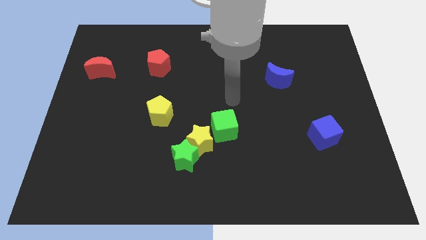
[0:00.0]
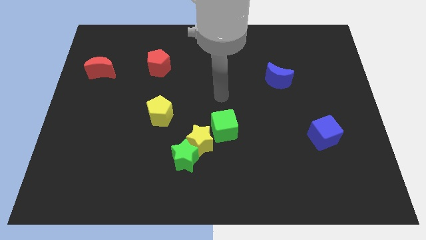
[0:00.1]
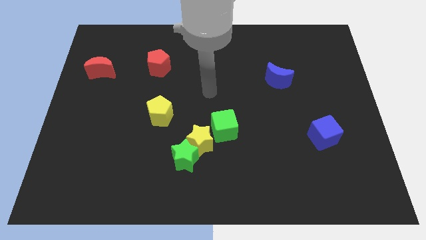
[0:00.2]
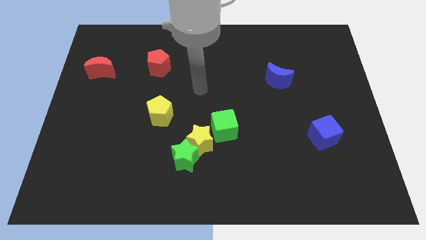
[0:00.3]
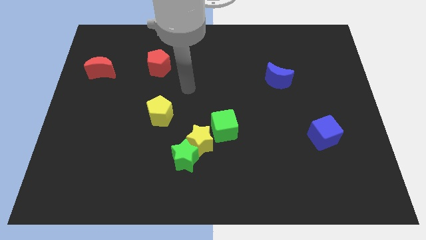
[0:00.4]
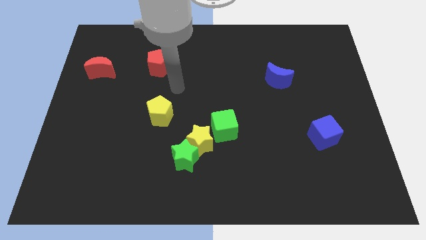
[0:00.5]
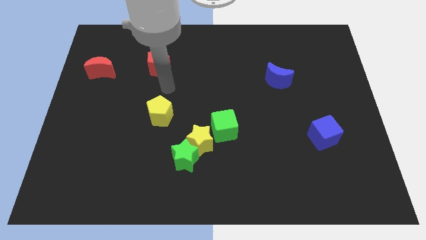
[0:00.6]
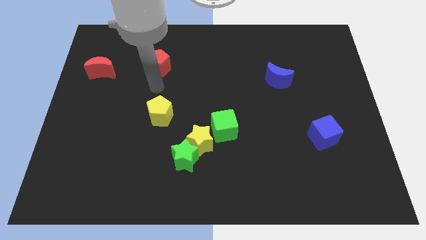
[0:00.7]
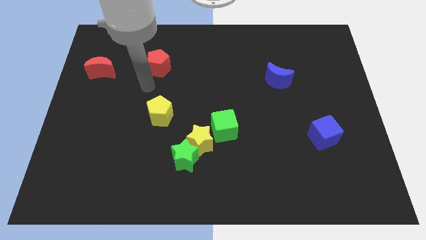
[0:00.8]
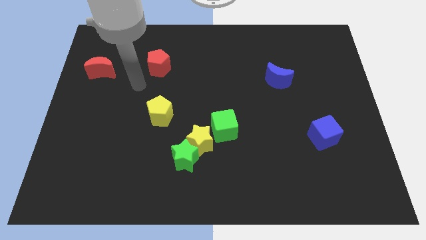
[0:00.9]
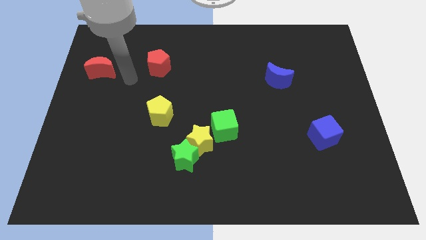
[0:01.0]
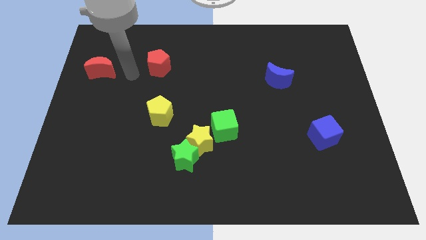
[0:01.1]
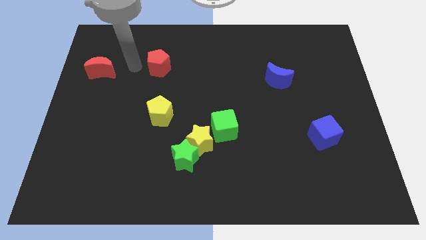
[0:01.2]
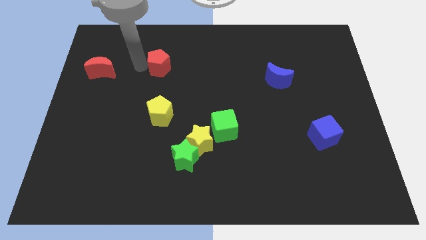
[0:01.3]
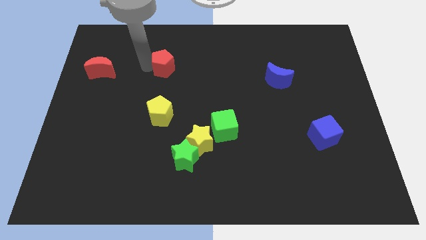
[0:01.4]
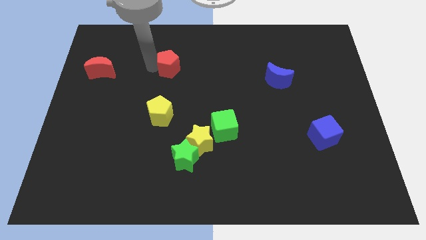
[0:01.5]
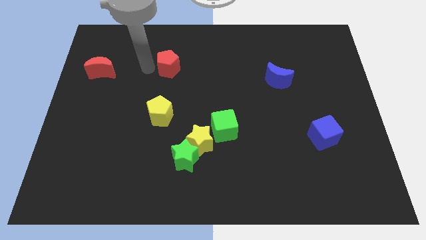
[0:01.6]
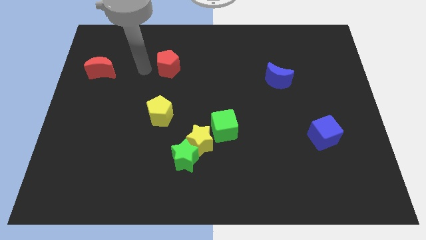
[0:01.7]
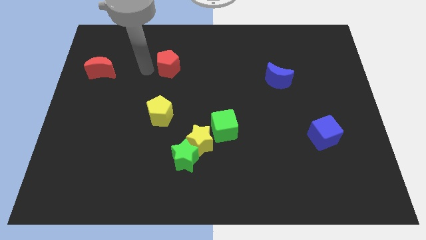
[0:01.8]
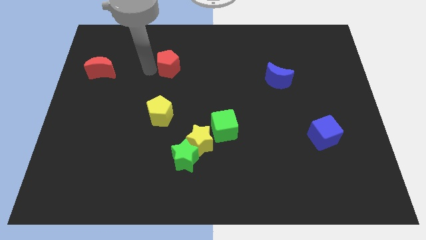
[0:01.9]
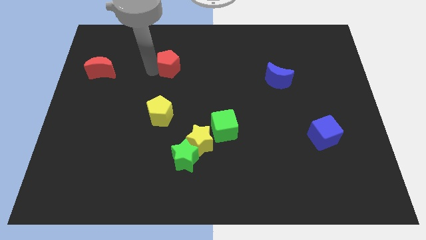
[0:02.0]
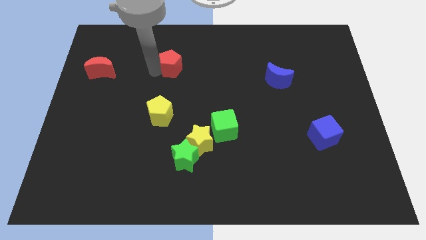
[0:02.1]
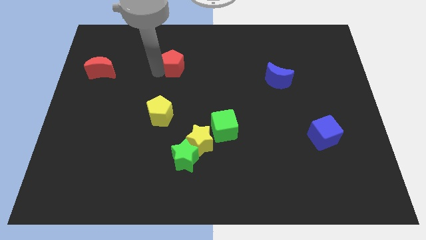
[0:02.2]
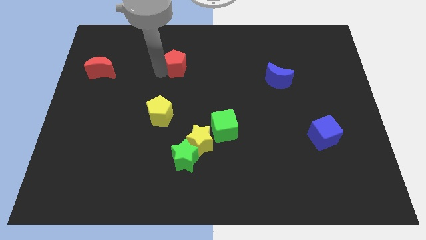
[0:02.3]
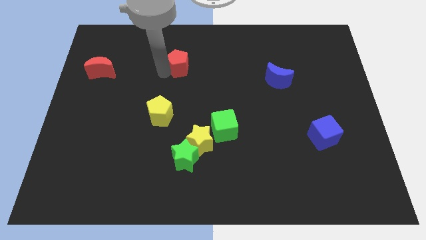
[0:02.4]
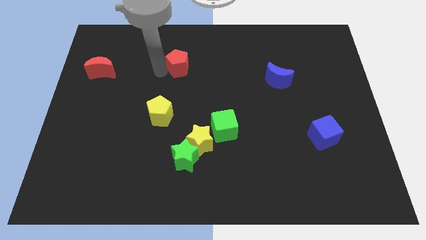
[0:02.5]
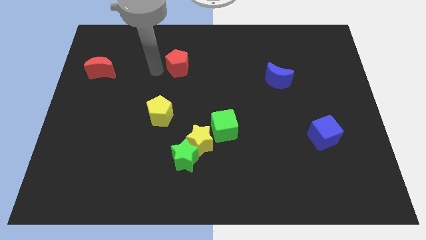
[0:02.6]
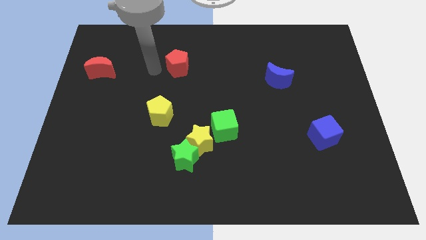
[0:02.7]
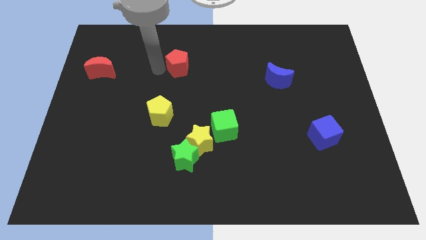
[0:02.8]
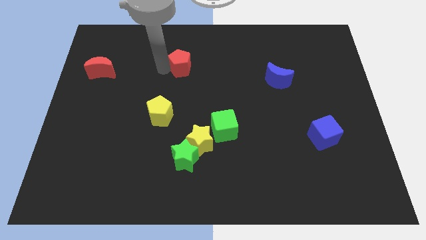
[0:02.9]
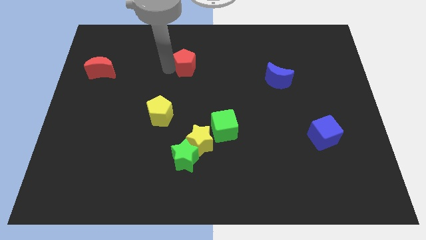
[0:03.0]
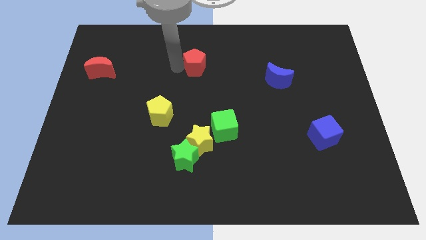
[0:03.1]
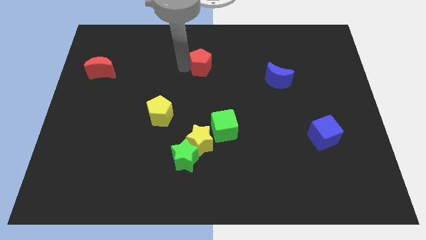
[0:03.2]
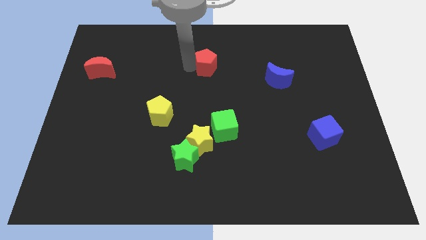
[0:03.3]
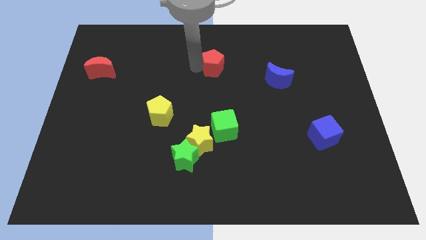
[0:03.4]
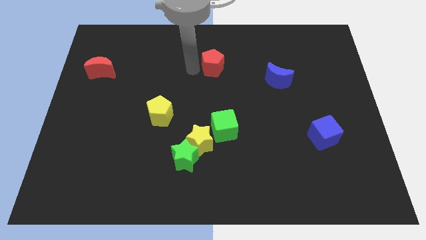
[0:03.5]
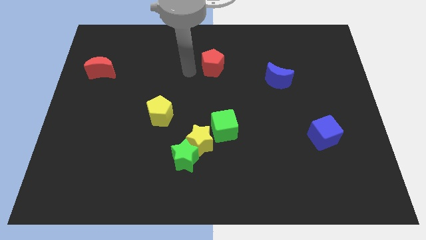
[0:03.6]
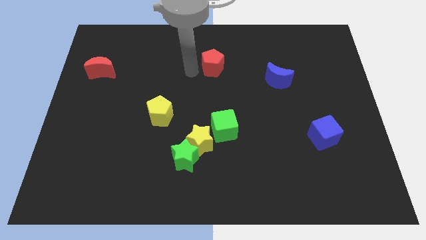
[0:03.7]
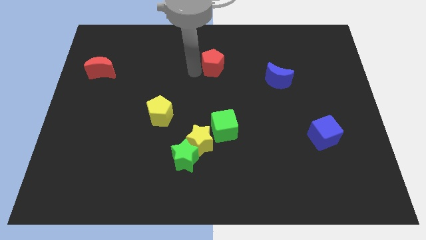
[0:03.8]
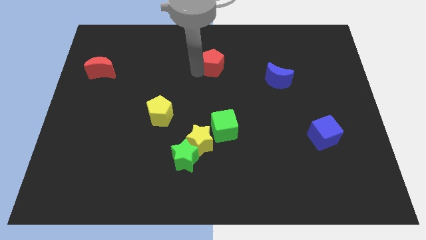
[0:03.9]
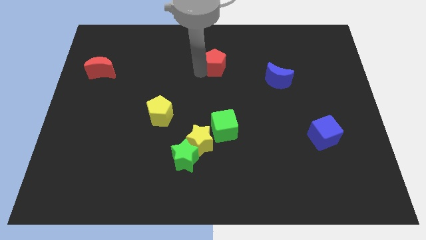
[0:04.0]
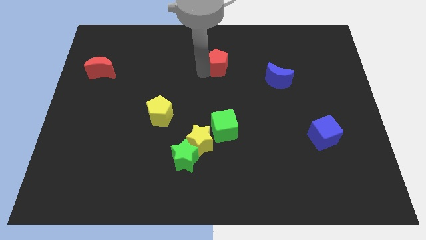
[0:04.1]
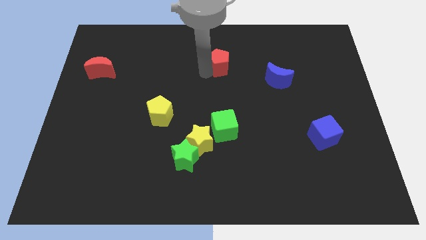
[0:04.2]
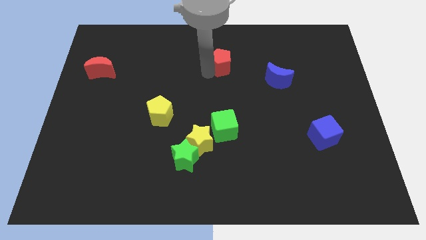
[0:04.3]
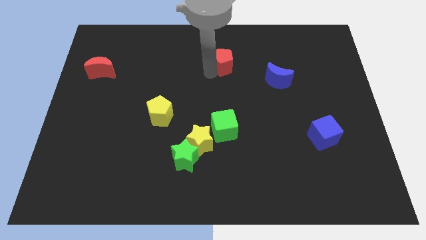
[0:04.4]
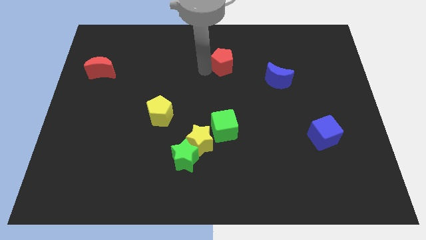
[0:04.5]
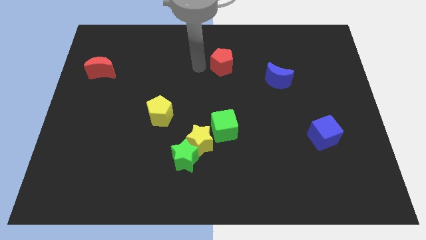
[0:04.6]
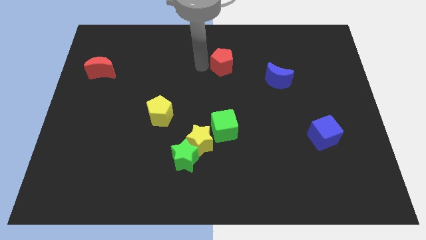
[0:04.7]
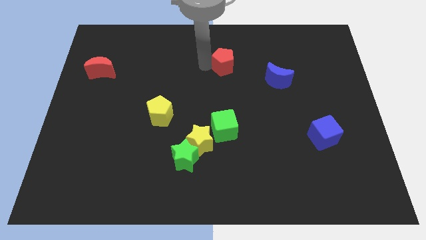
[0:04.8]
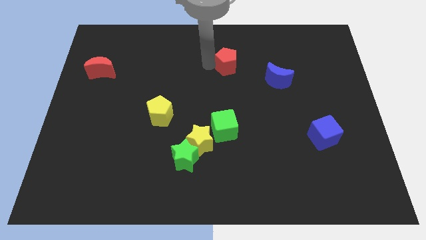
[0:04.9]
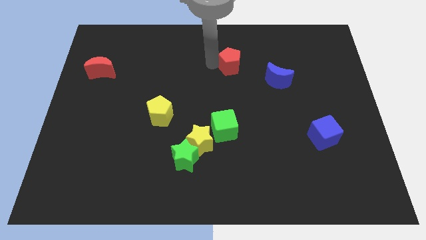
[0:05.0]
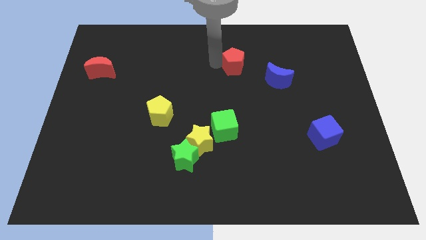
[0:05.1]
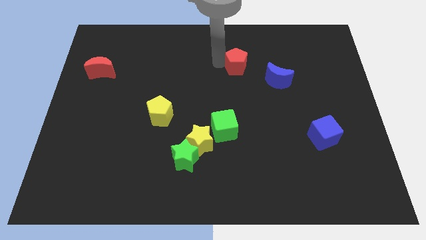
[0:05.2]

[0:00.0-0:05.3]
slide the red pentagon to the right

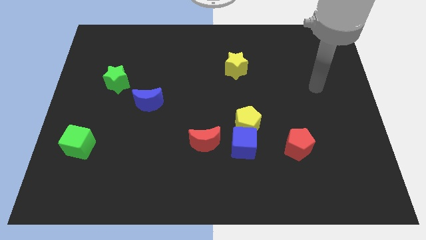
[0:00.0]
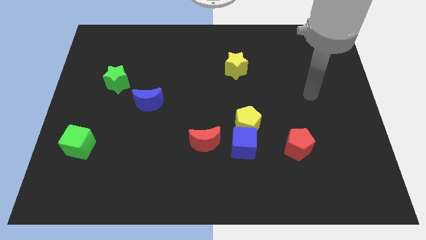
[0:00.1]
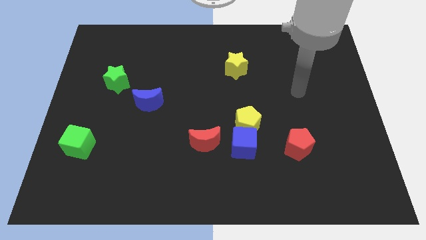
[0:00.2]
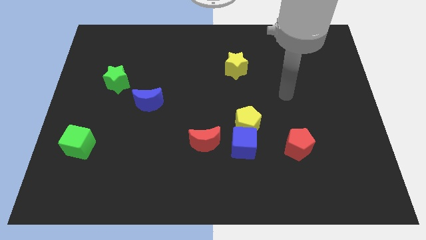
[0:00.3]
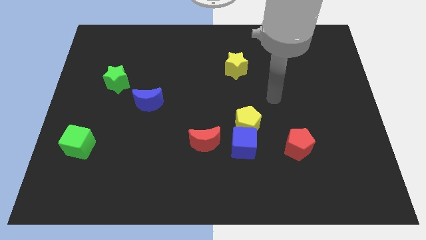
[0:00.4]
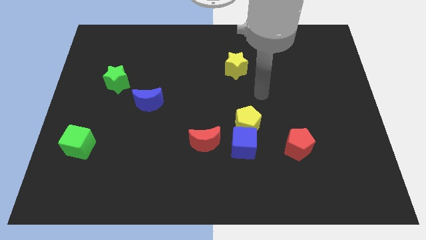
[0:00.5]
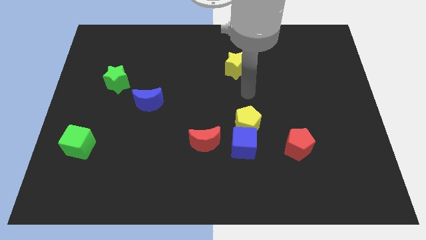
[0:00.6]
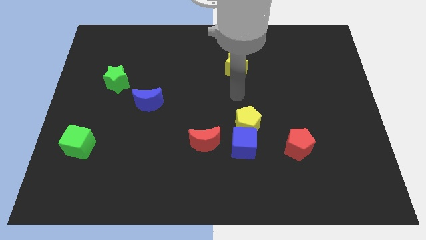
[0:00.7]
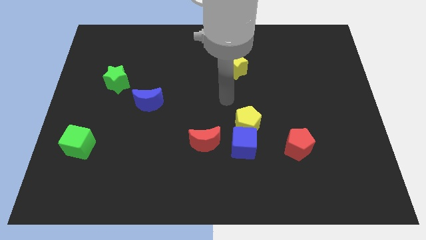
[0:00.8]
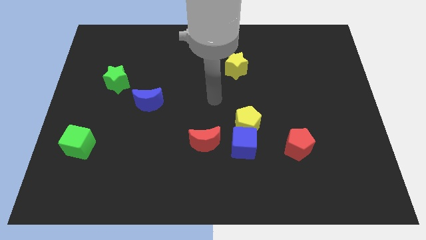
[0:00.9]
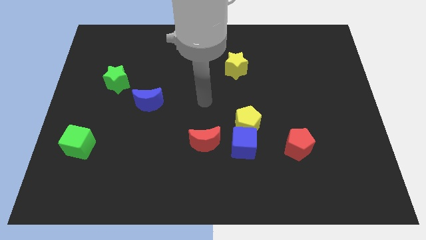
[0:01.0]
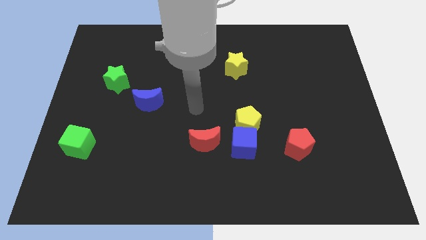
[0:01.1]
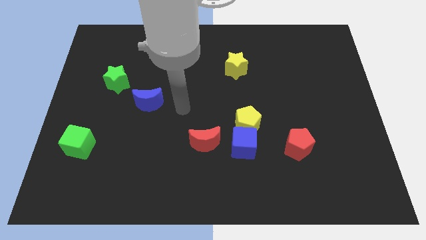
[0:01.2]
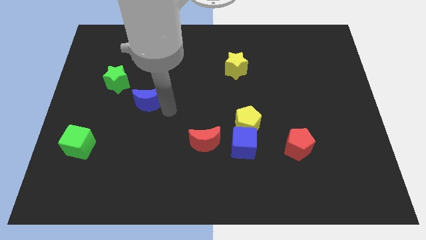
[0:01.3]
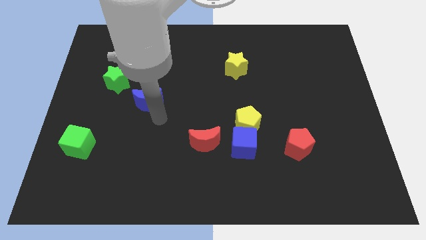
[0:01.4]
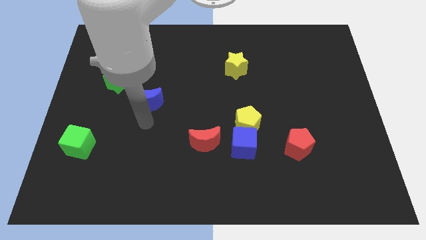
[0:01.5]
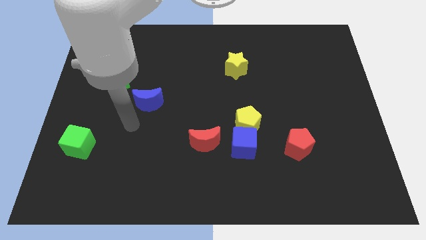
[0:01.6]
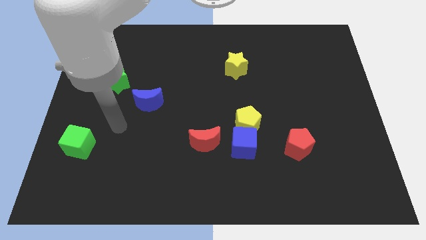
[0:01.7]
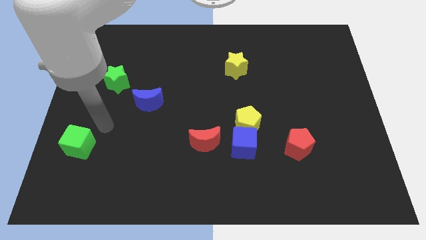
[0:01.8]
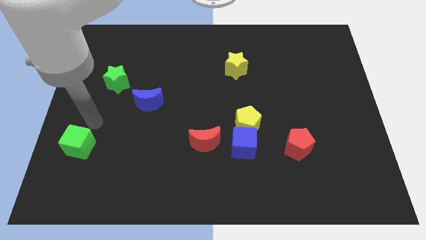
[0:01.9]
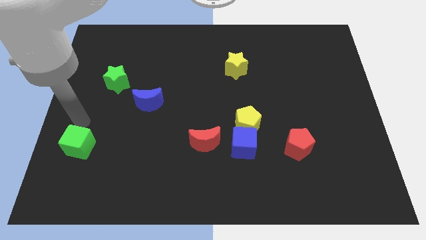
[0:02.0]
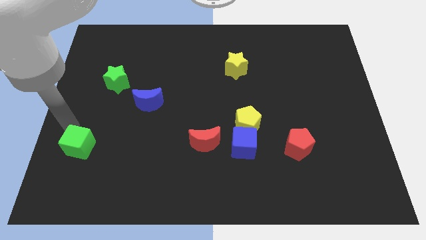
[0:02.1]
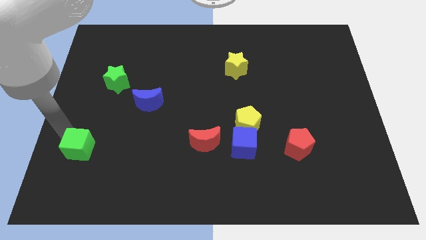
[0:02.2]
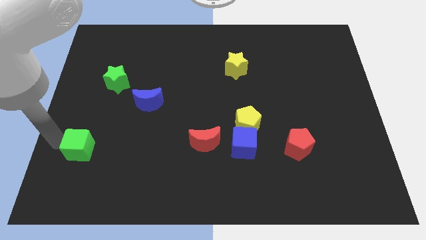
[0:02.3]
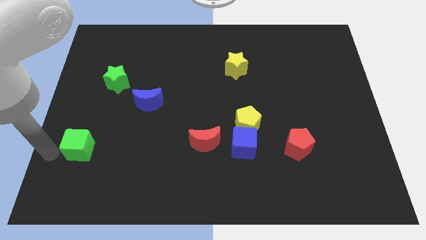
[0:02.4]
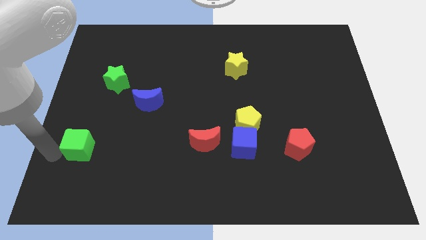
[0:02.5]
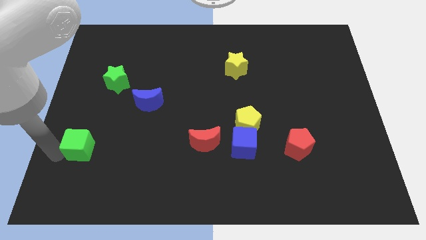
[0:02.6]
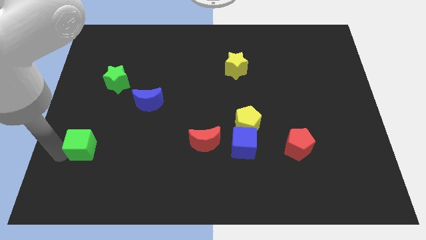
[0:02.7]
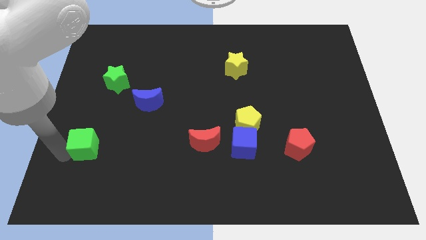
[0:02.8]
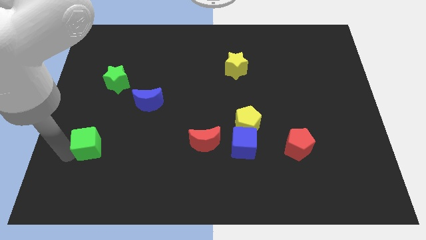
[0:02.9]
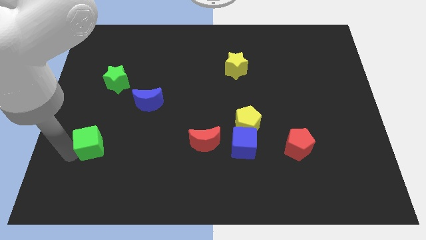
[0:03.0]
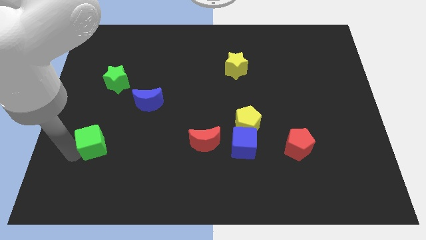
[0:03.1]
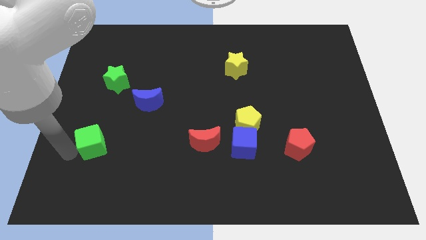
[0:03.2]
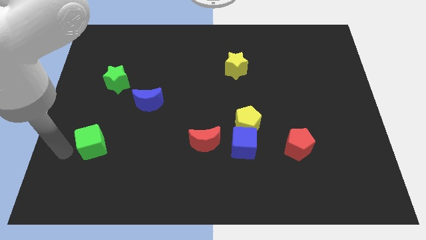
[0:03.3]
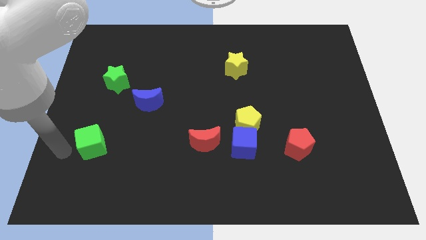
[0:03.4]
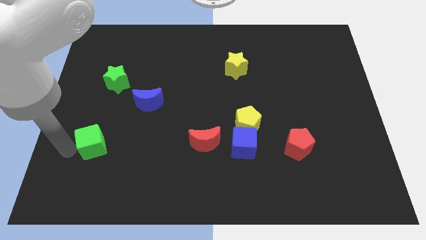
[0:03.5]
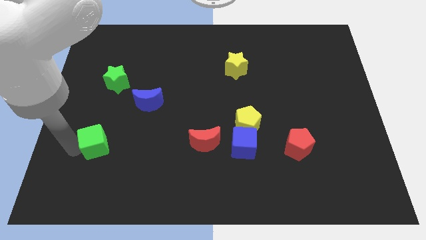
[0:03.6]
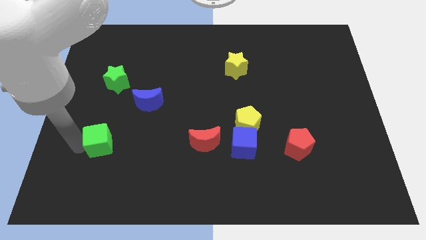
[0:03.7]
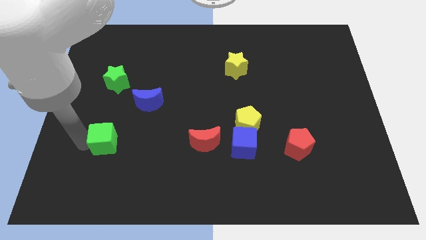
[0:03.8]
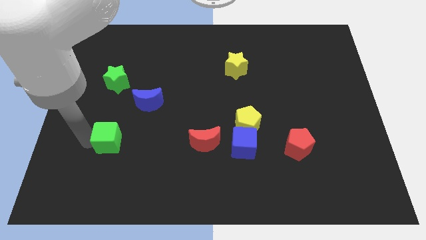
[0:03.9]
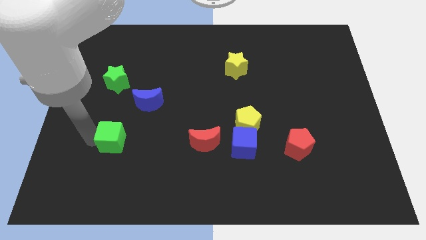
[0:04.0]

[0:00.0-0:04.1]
move the green cube somewhat to the right
